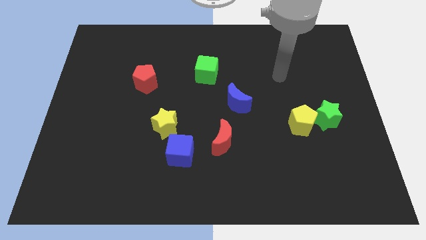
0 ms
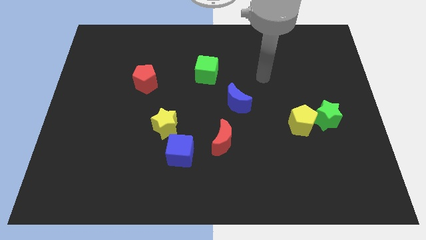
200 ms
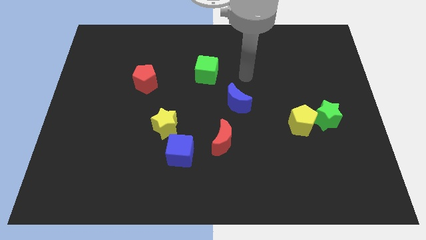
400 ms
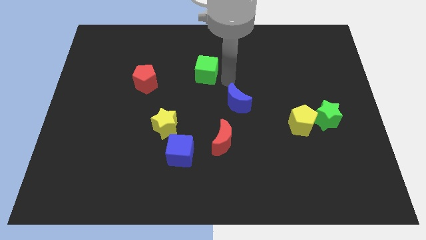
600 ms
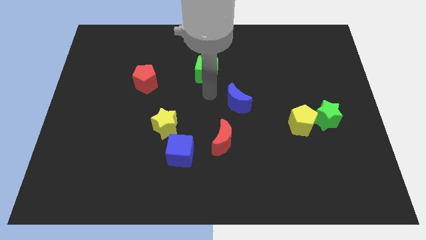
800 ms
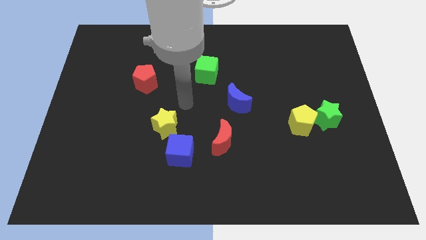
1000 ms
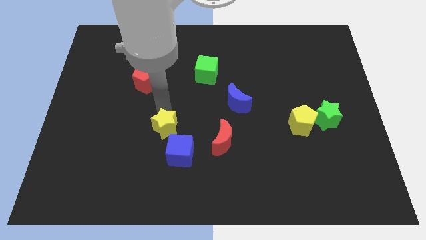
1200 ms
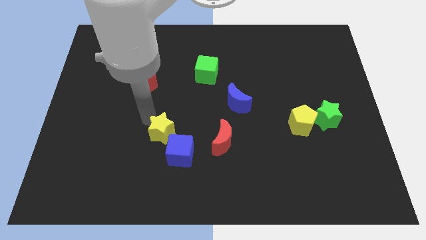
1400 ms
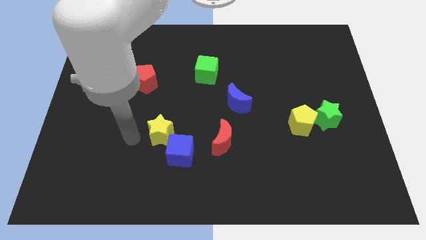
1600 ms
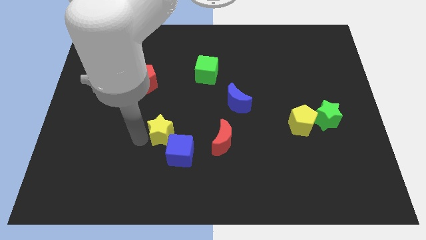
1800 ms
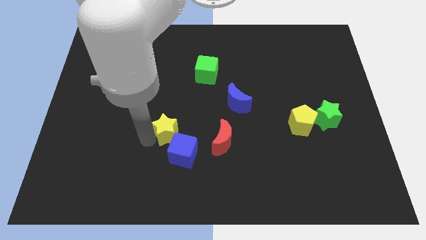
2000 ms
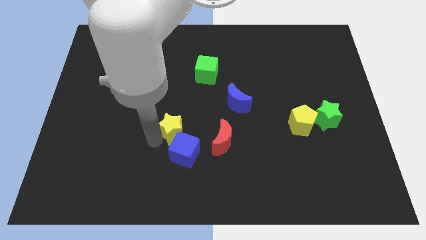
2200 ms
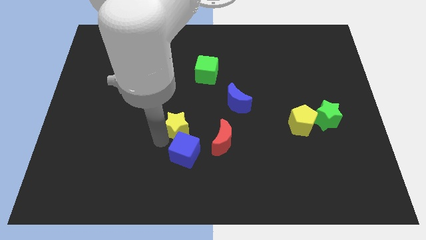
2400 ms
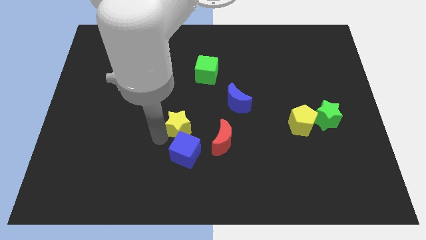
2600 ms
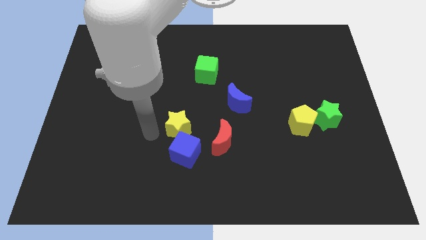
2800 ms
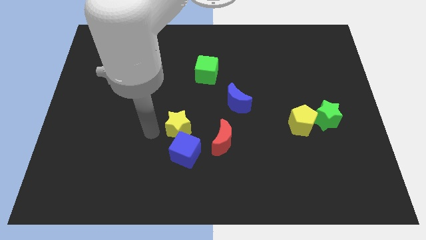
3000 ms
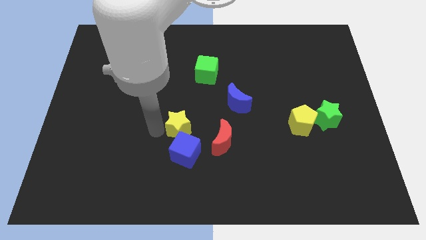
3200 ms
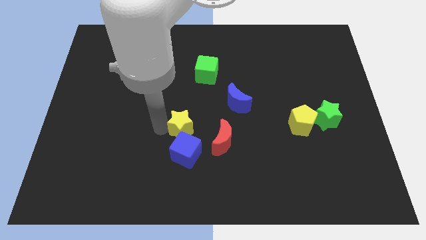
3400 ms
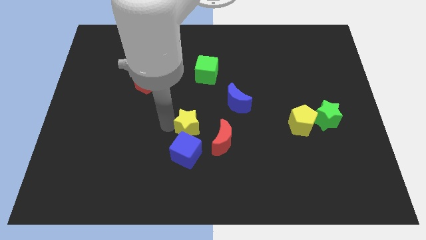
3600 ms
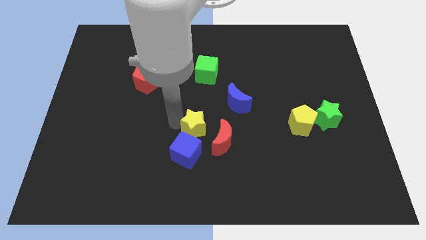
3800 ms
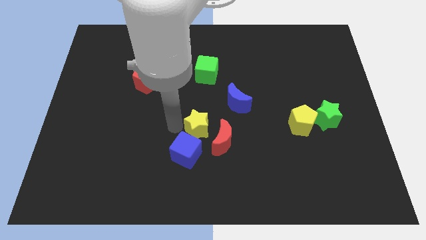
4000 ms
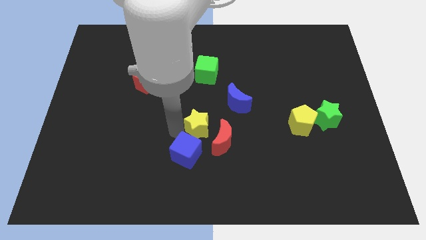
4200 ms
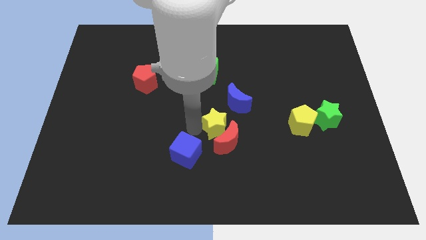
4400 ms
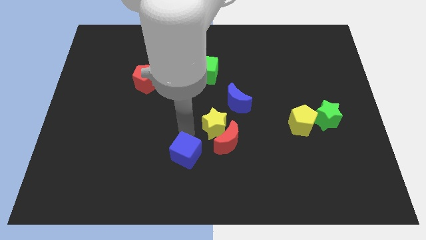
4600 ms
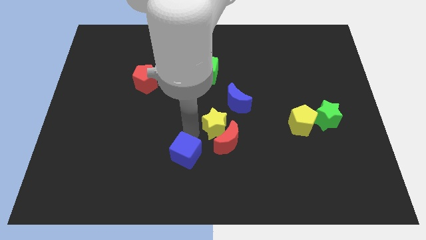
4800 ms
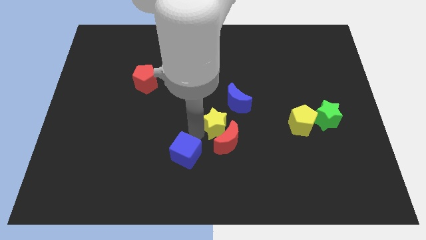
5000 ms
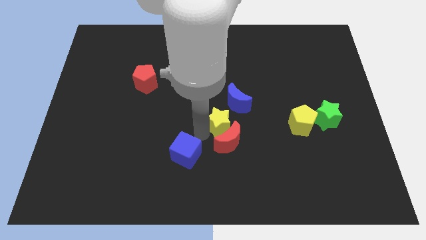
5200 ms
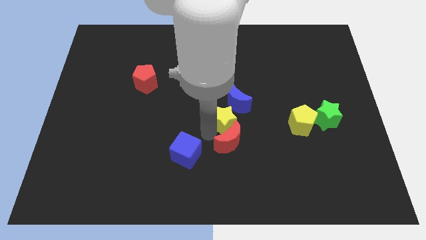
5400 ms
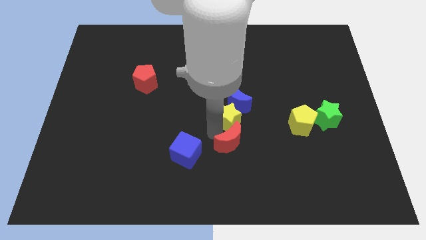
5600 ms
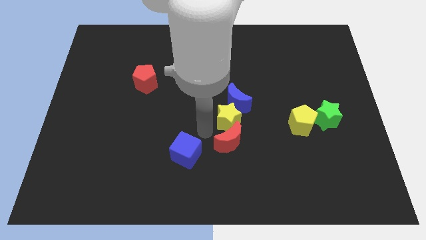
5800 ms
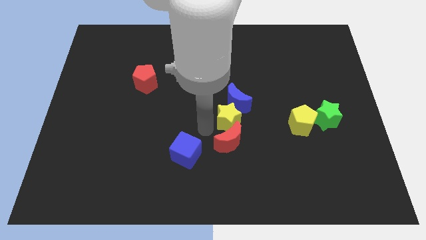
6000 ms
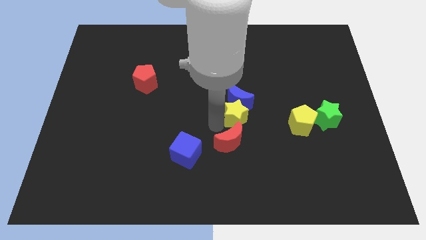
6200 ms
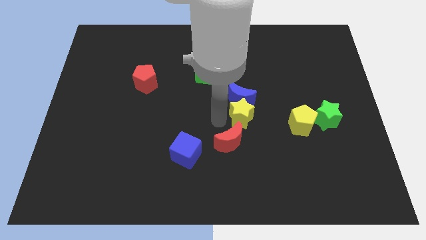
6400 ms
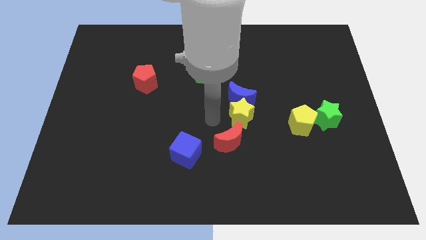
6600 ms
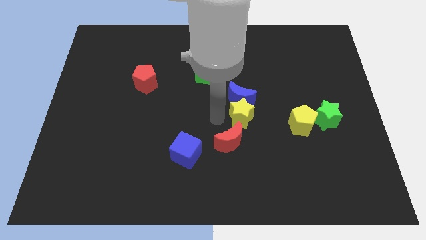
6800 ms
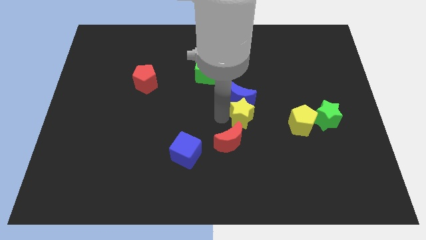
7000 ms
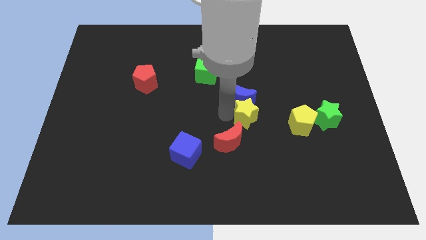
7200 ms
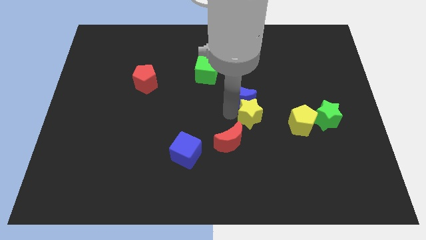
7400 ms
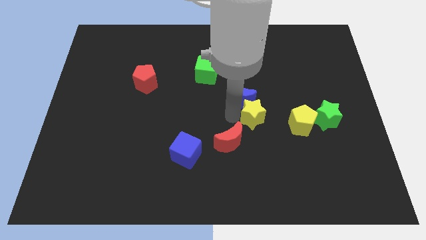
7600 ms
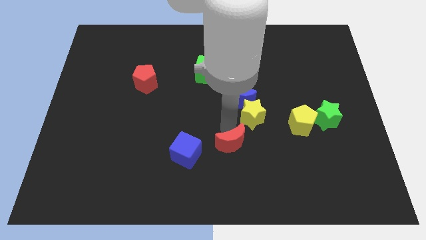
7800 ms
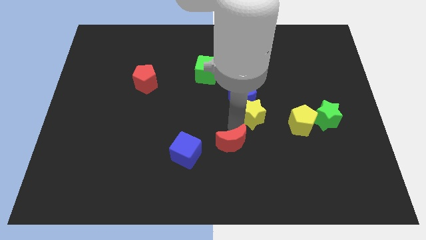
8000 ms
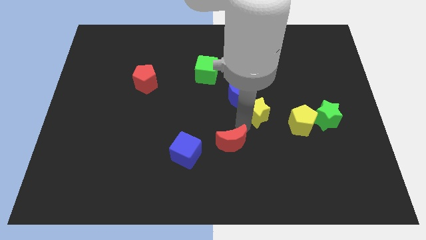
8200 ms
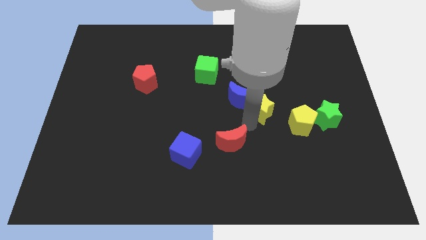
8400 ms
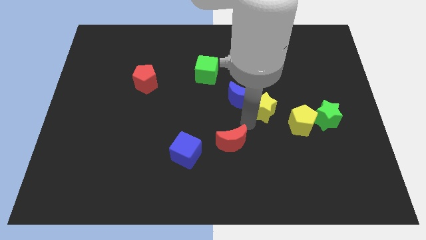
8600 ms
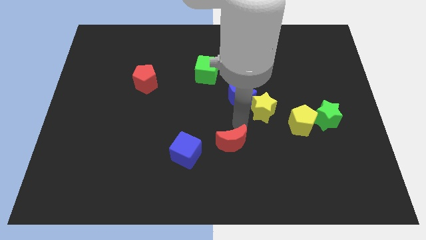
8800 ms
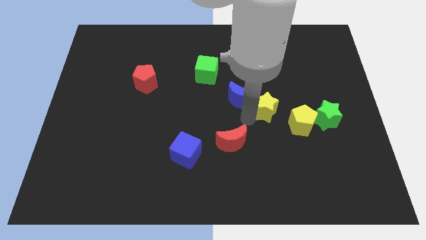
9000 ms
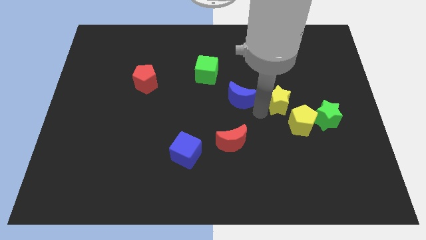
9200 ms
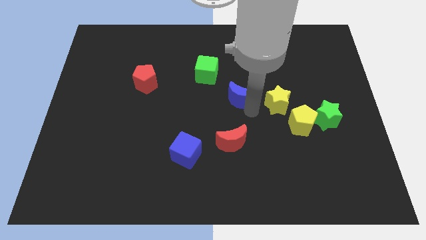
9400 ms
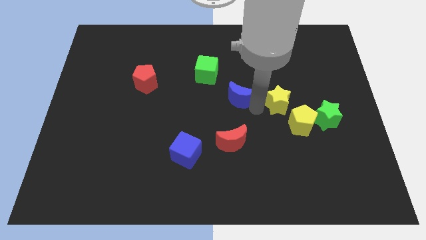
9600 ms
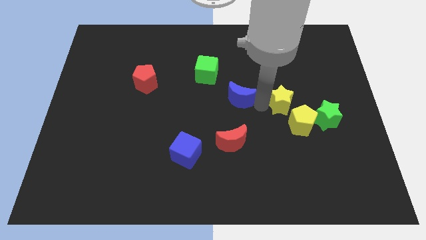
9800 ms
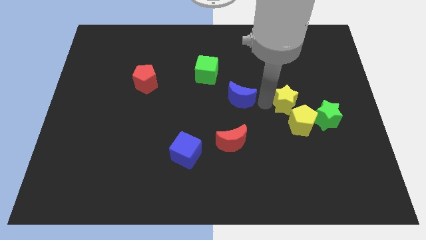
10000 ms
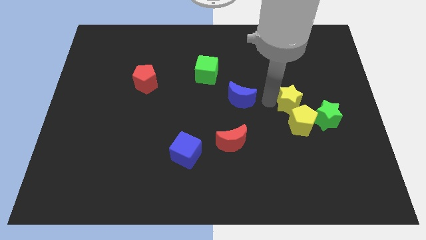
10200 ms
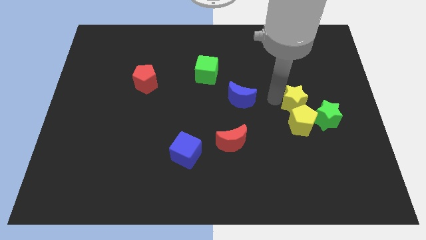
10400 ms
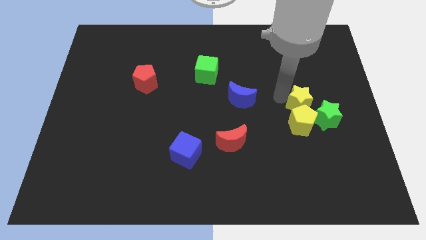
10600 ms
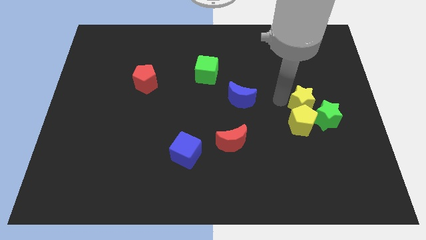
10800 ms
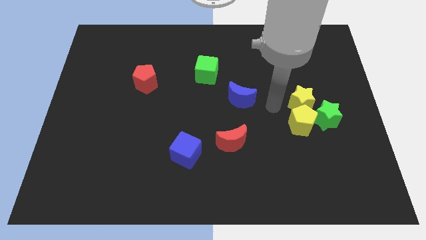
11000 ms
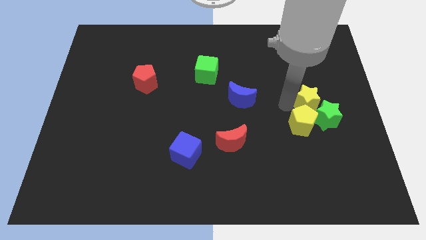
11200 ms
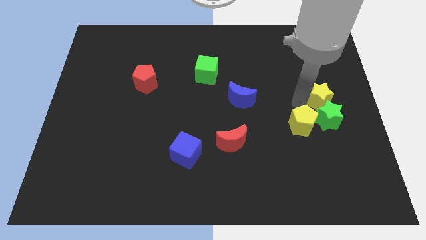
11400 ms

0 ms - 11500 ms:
push the yellow star to the right side of the board
